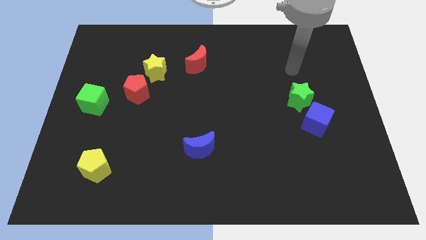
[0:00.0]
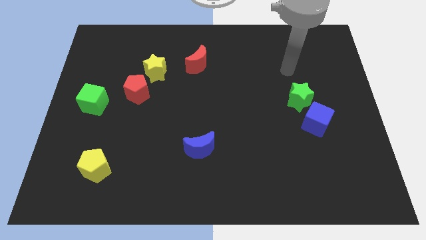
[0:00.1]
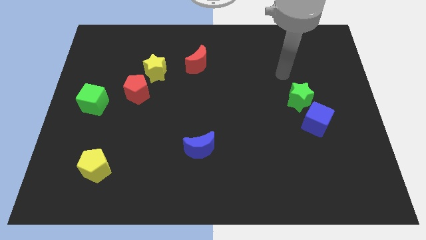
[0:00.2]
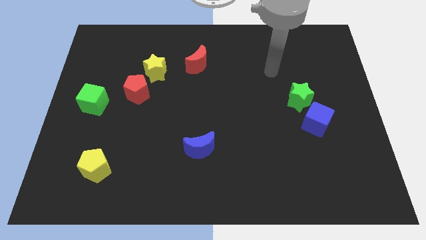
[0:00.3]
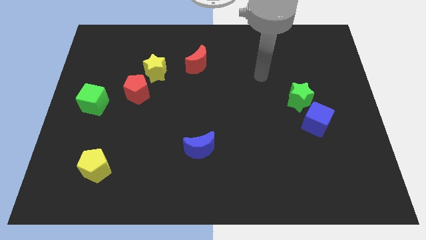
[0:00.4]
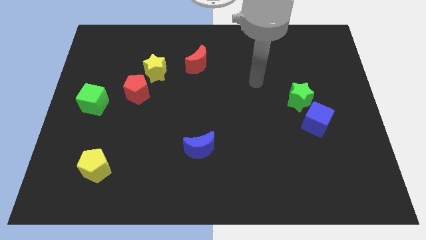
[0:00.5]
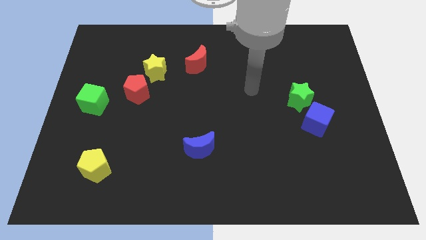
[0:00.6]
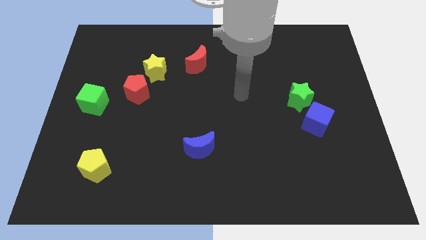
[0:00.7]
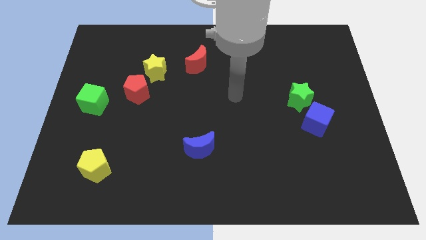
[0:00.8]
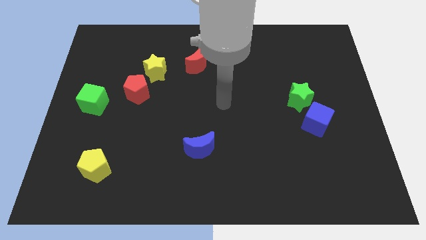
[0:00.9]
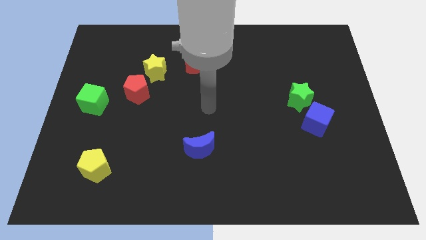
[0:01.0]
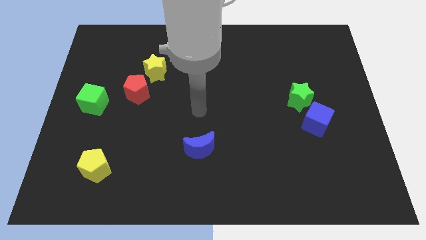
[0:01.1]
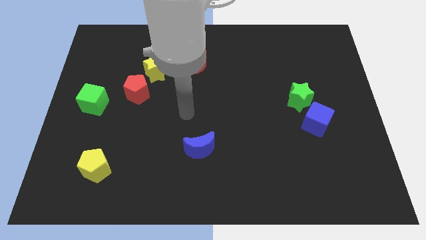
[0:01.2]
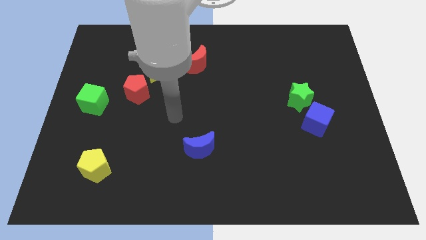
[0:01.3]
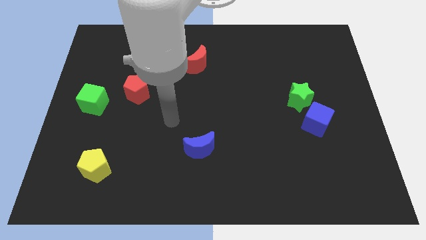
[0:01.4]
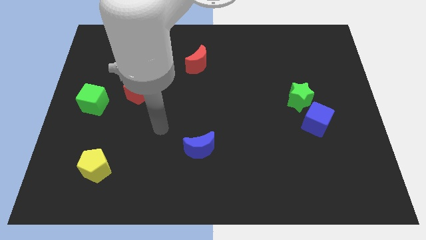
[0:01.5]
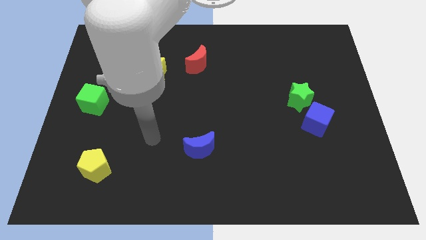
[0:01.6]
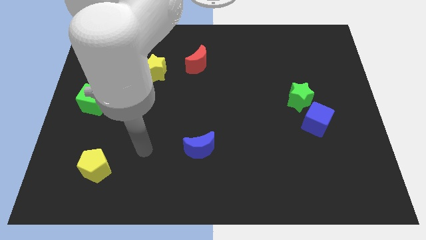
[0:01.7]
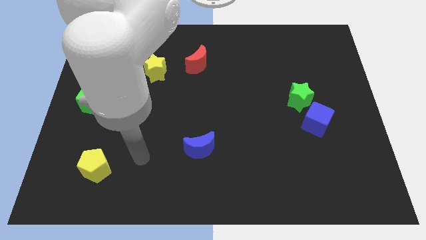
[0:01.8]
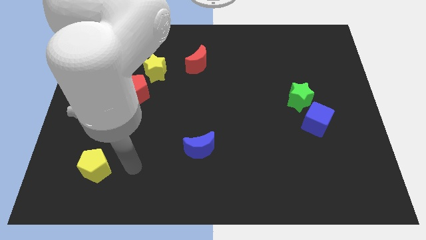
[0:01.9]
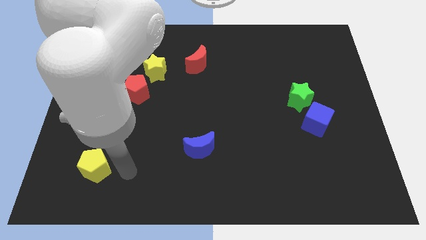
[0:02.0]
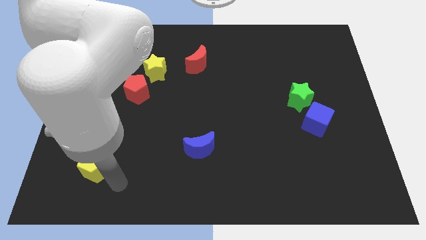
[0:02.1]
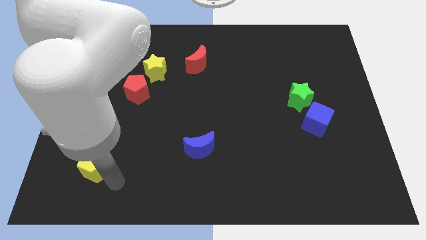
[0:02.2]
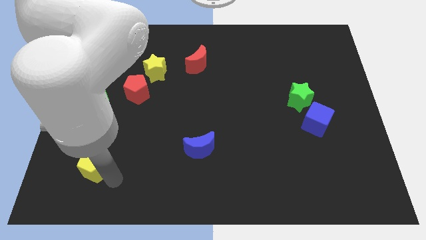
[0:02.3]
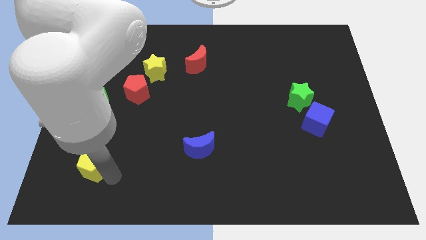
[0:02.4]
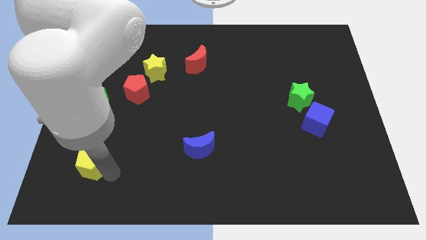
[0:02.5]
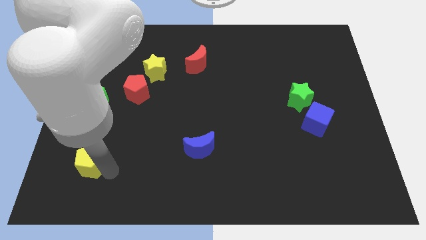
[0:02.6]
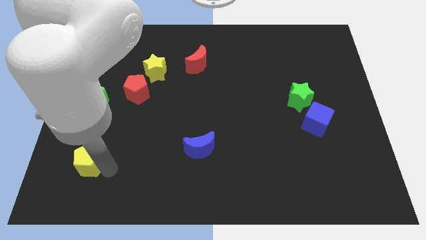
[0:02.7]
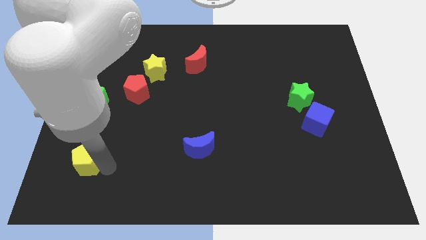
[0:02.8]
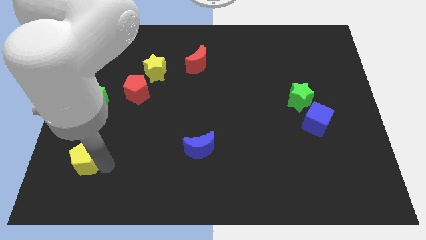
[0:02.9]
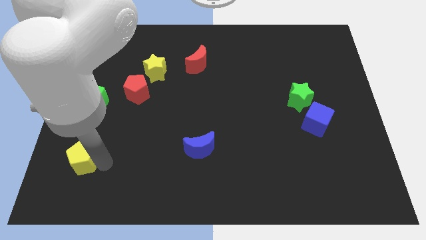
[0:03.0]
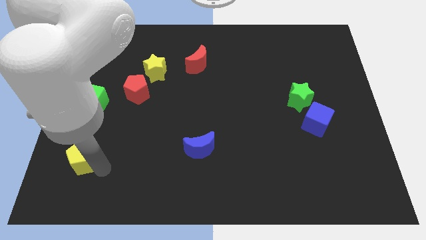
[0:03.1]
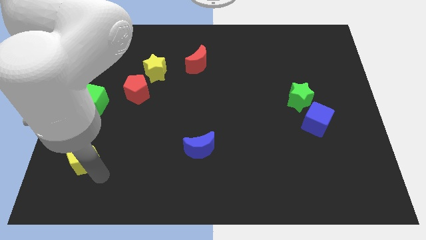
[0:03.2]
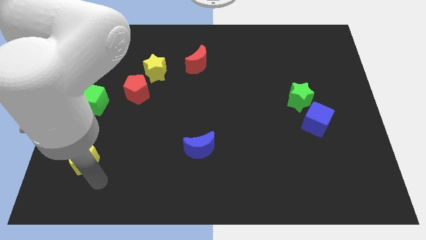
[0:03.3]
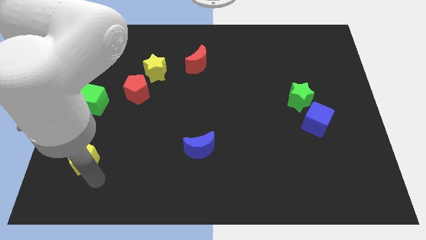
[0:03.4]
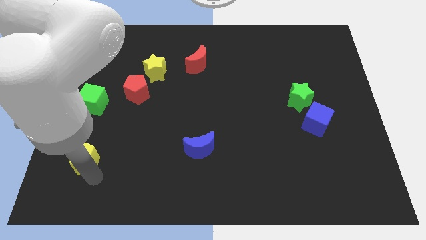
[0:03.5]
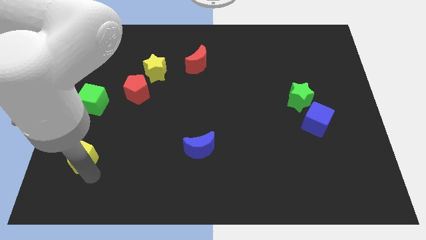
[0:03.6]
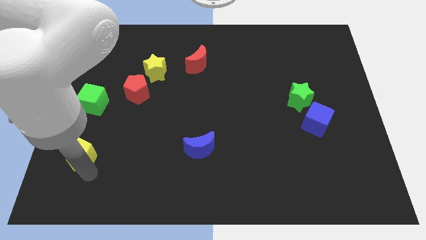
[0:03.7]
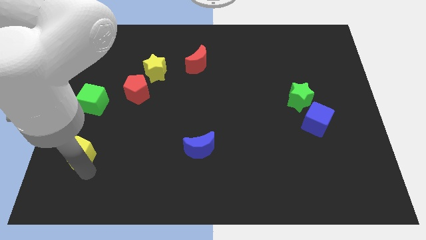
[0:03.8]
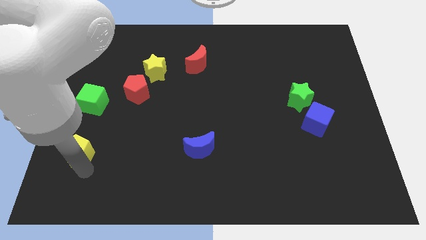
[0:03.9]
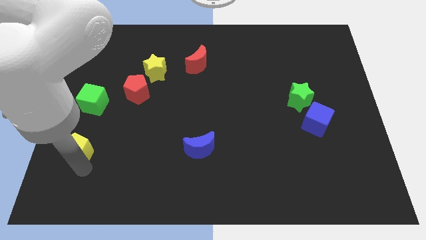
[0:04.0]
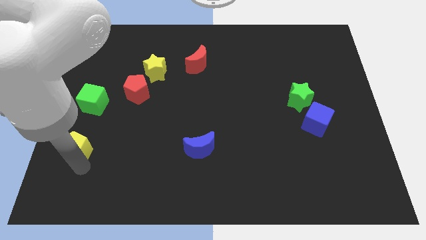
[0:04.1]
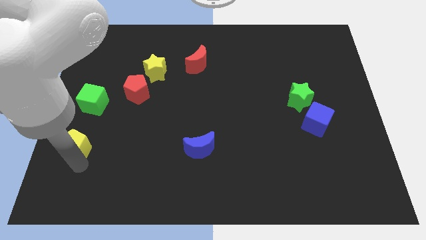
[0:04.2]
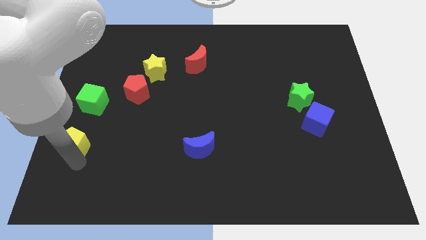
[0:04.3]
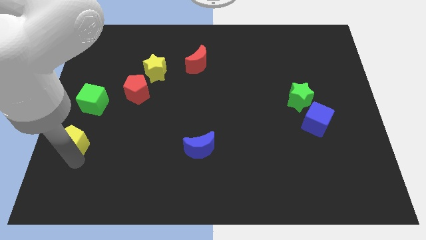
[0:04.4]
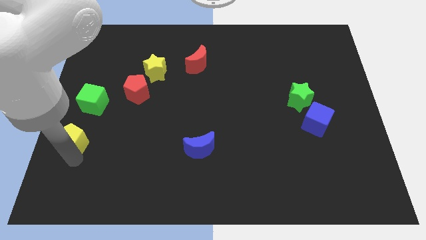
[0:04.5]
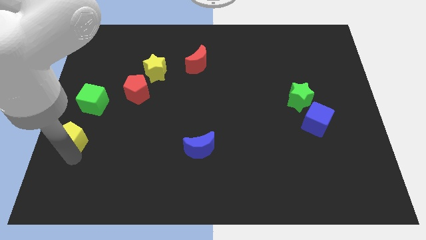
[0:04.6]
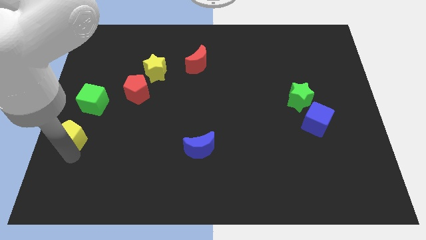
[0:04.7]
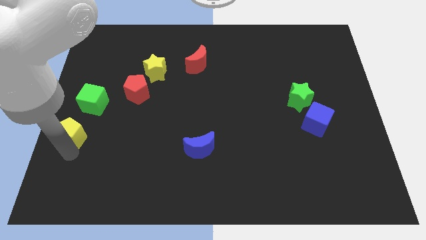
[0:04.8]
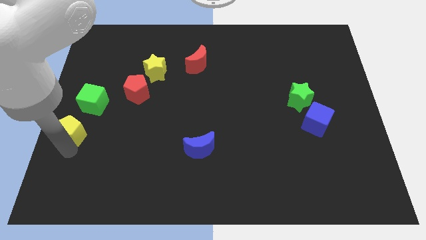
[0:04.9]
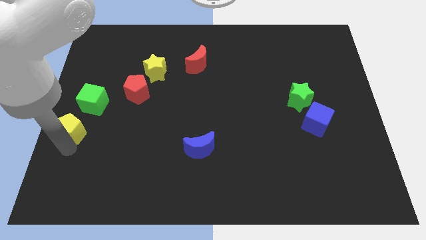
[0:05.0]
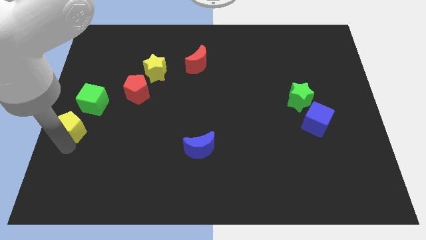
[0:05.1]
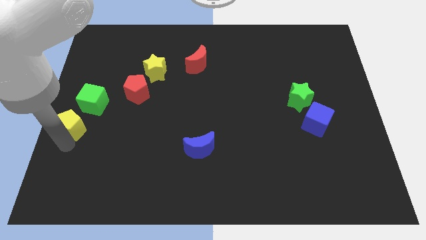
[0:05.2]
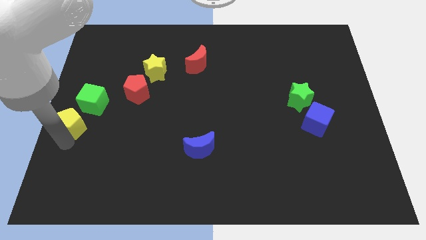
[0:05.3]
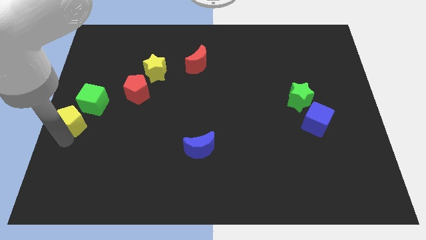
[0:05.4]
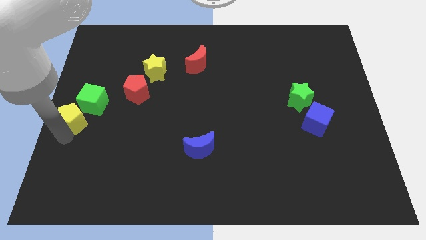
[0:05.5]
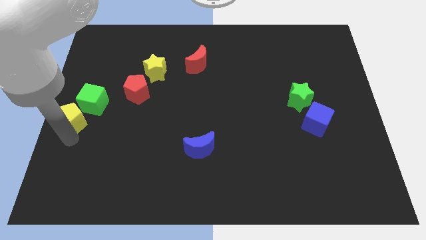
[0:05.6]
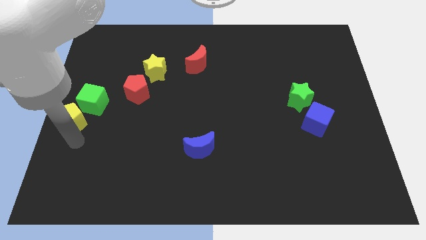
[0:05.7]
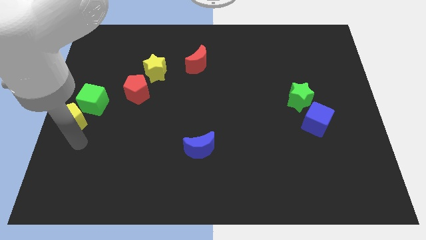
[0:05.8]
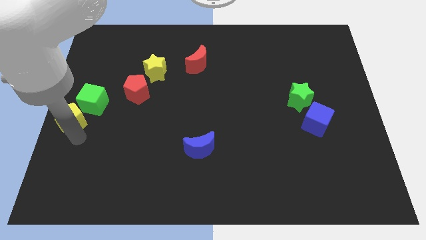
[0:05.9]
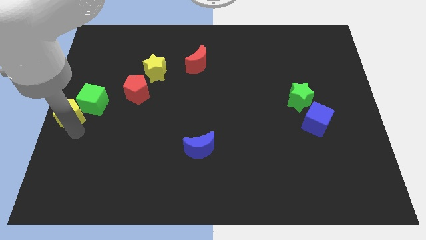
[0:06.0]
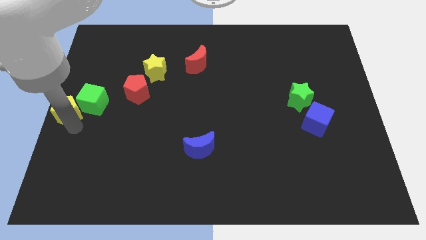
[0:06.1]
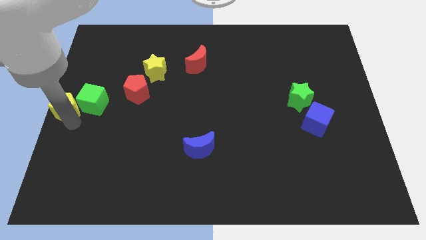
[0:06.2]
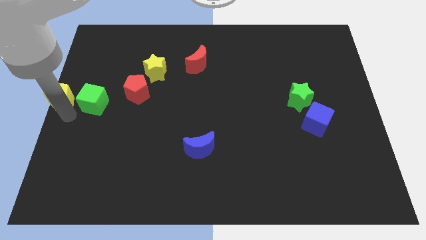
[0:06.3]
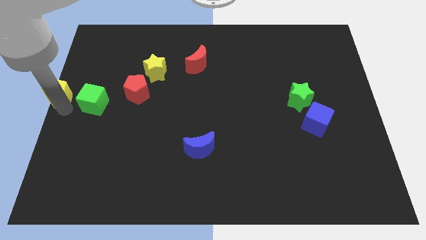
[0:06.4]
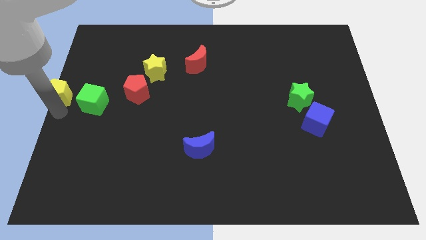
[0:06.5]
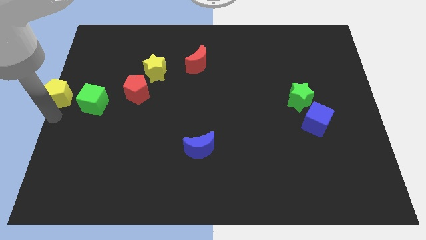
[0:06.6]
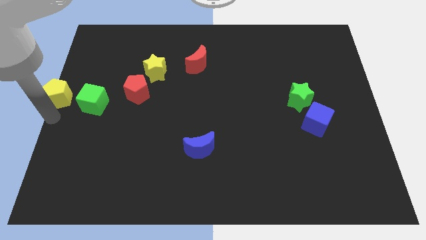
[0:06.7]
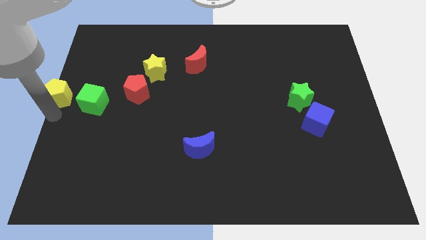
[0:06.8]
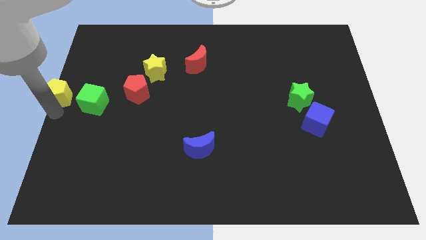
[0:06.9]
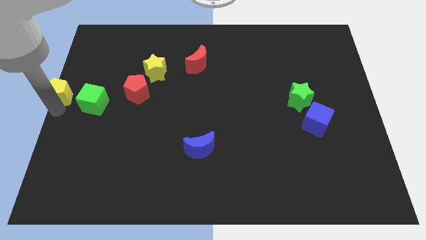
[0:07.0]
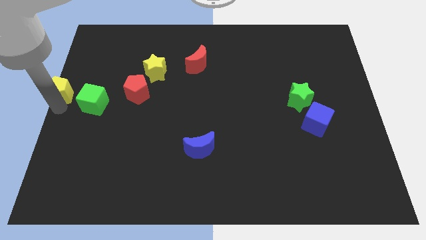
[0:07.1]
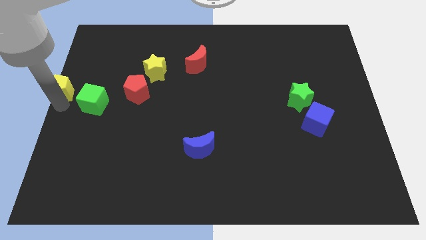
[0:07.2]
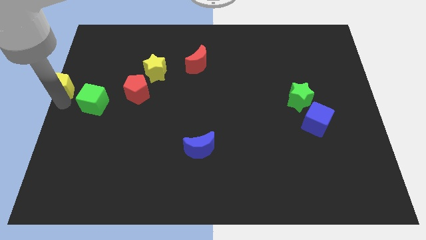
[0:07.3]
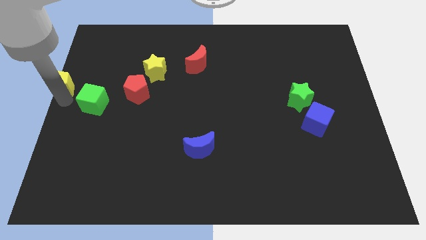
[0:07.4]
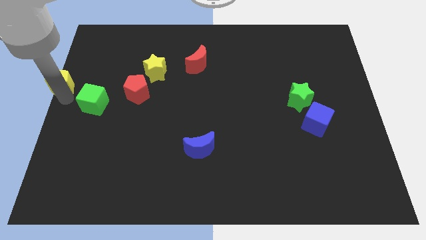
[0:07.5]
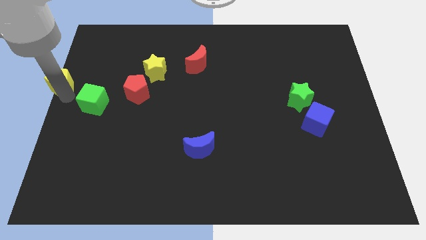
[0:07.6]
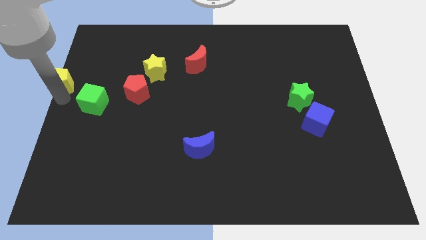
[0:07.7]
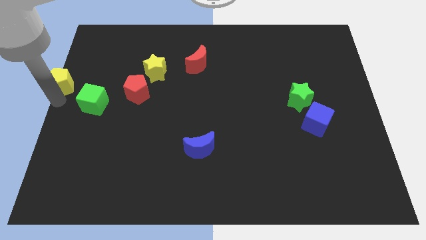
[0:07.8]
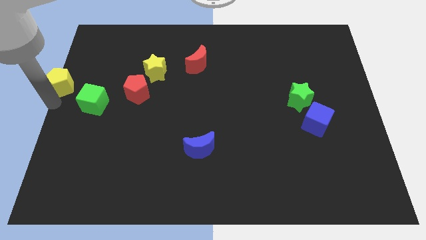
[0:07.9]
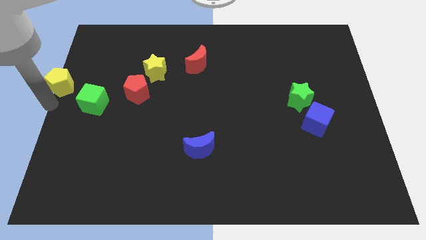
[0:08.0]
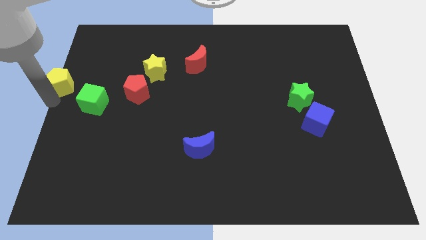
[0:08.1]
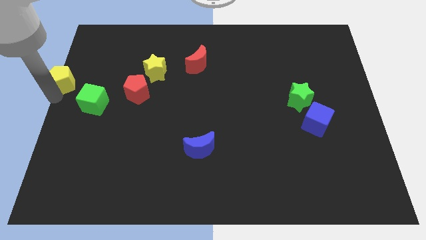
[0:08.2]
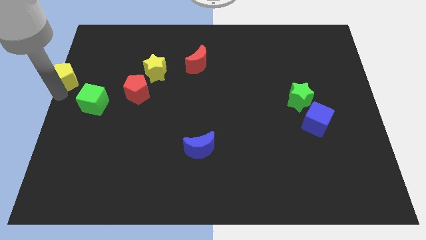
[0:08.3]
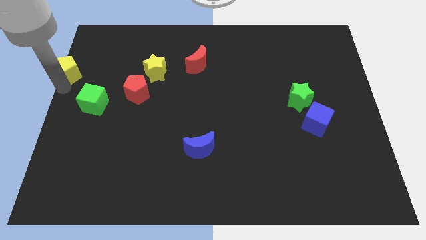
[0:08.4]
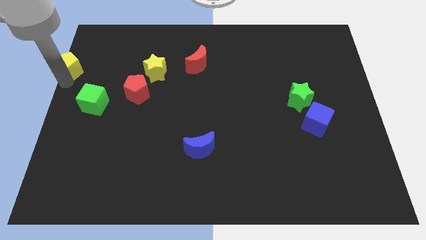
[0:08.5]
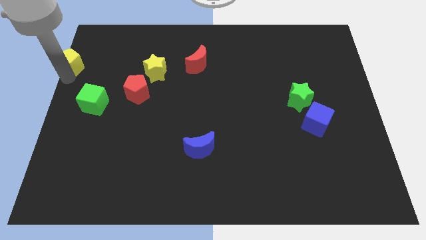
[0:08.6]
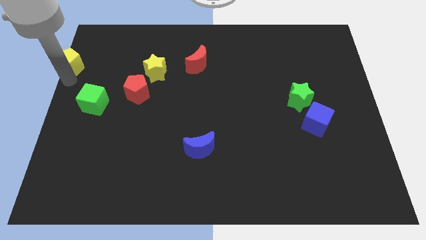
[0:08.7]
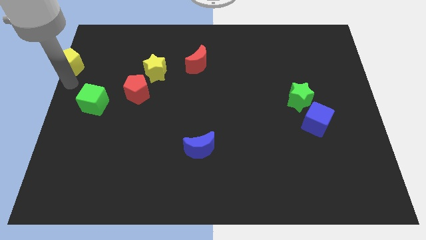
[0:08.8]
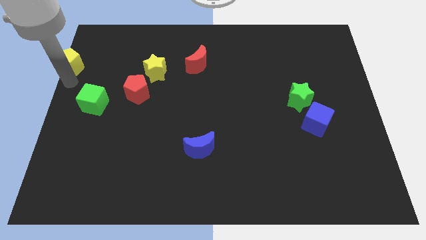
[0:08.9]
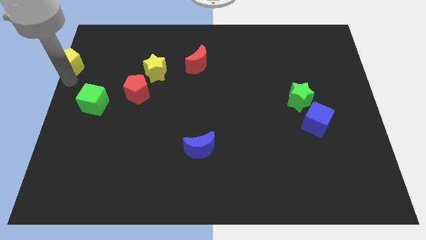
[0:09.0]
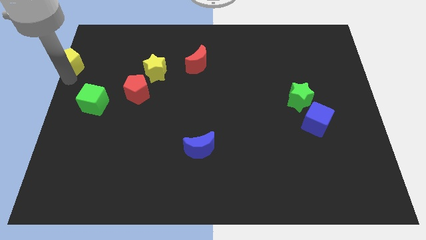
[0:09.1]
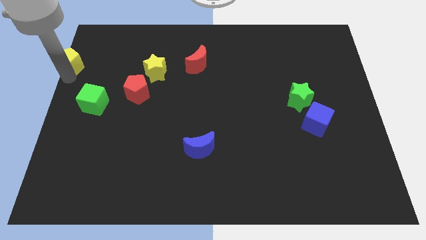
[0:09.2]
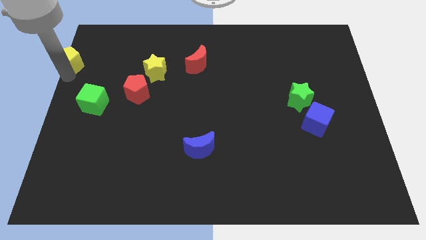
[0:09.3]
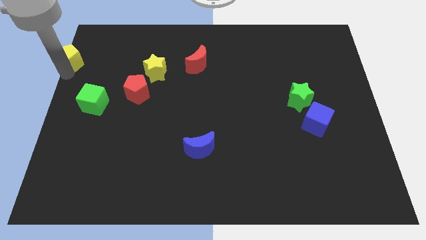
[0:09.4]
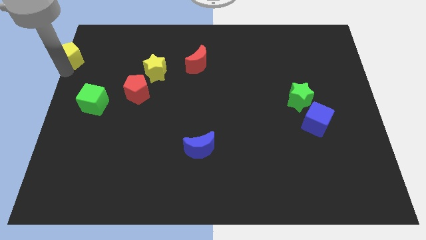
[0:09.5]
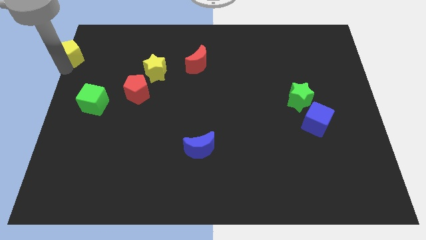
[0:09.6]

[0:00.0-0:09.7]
move the yellow pentagon to the top left corner
